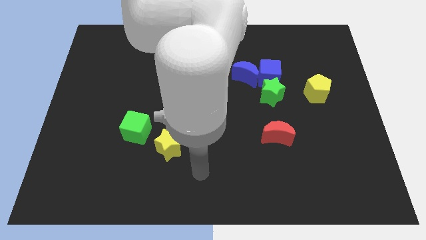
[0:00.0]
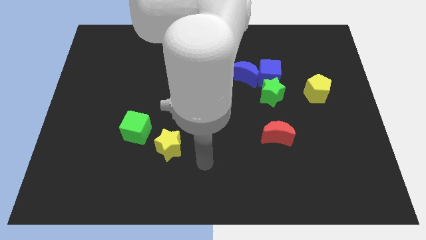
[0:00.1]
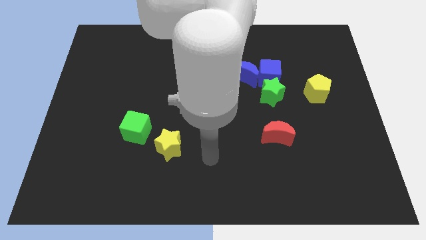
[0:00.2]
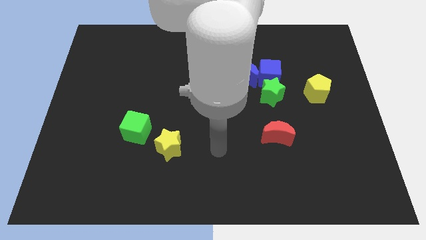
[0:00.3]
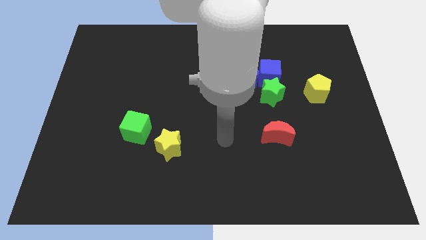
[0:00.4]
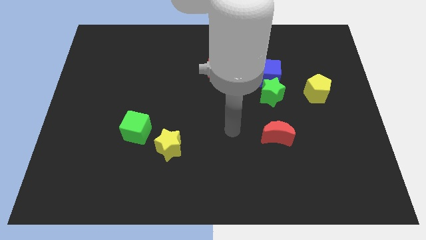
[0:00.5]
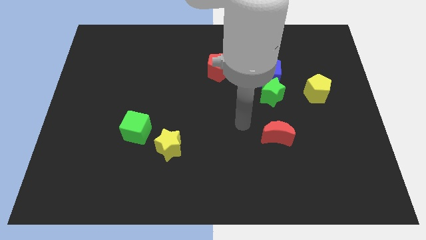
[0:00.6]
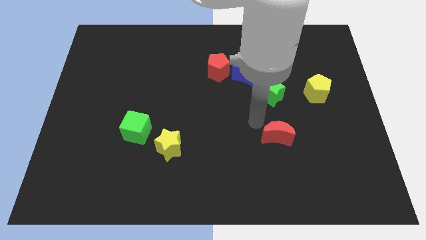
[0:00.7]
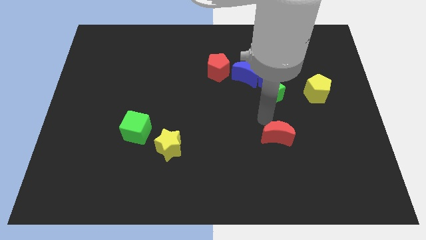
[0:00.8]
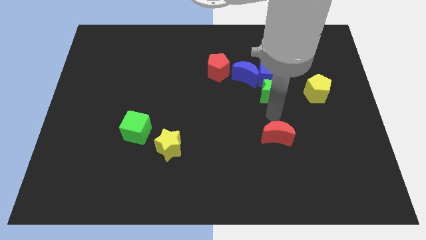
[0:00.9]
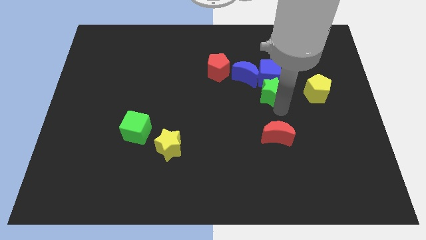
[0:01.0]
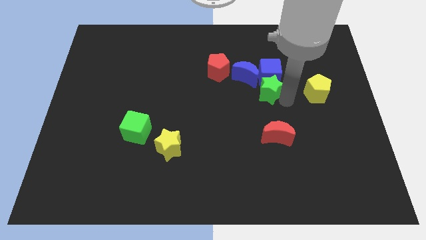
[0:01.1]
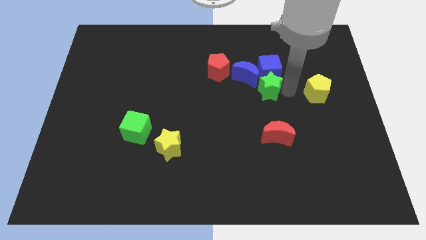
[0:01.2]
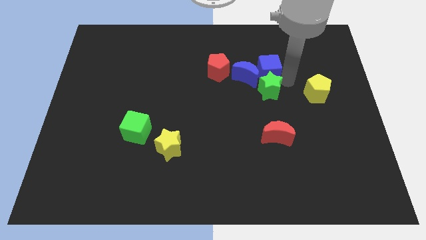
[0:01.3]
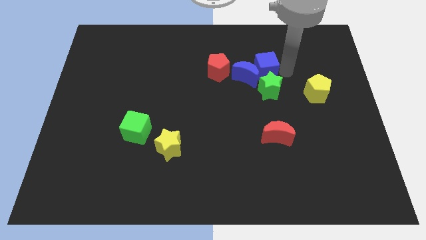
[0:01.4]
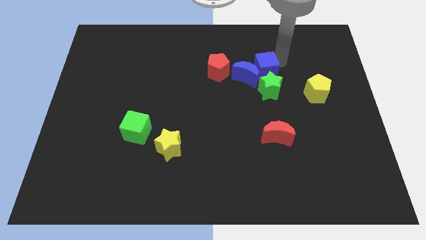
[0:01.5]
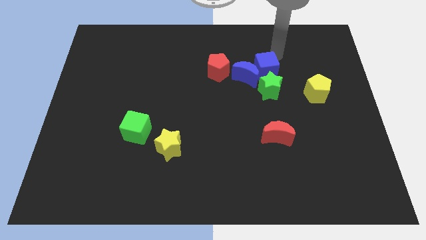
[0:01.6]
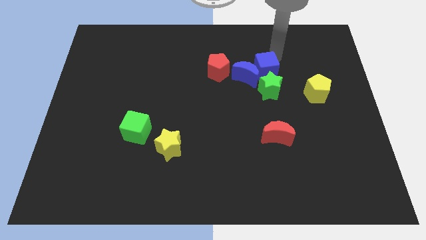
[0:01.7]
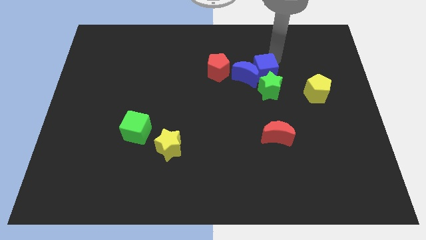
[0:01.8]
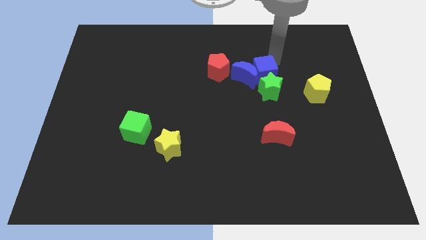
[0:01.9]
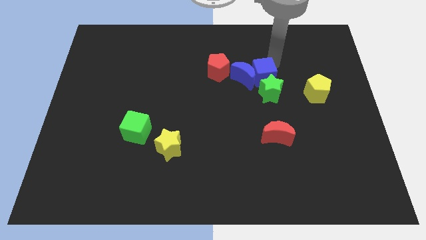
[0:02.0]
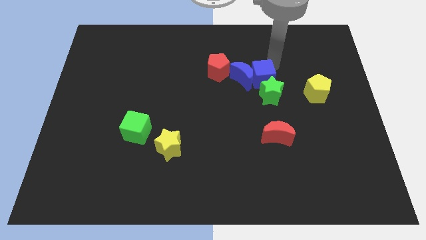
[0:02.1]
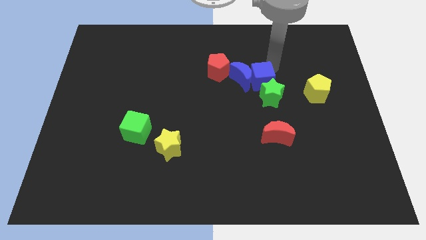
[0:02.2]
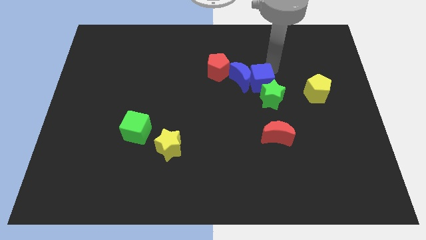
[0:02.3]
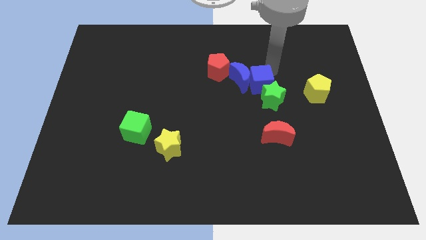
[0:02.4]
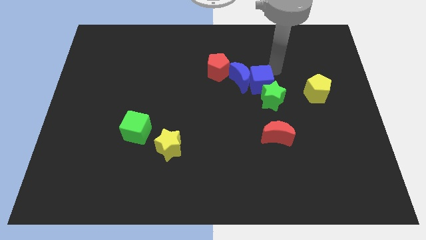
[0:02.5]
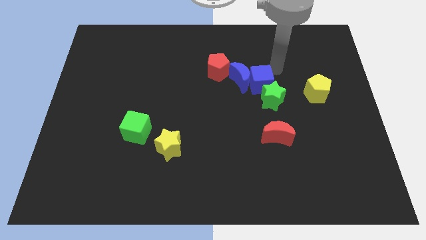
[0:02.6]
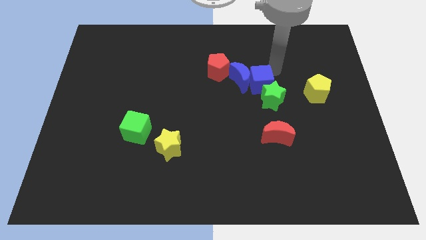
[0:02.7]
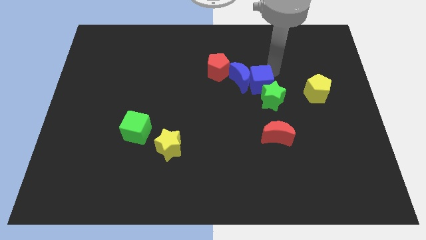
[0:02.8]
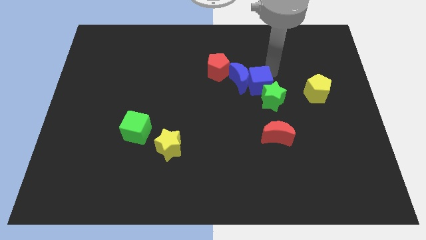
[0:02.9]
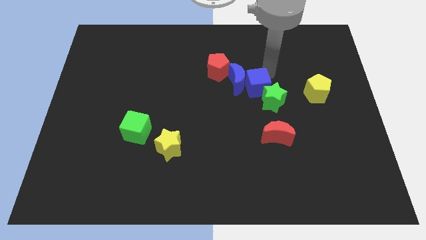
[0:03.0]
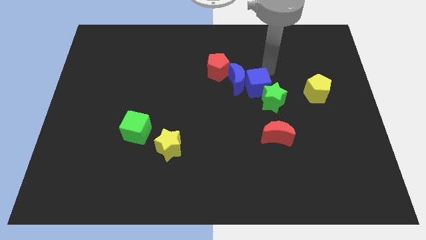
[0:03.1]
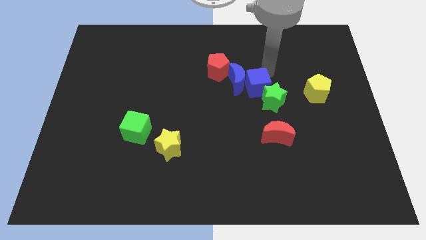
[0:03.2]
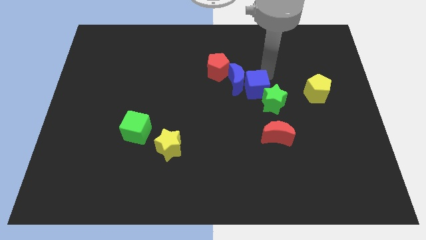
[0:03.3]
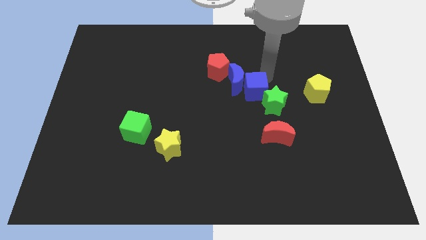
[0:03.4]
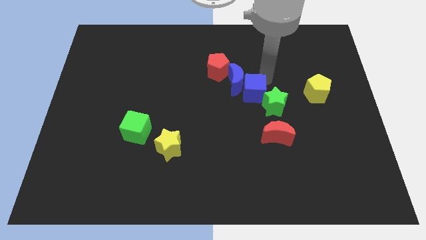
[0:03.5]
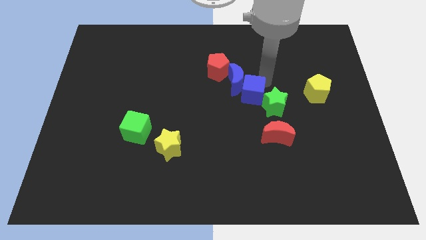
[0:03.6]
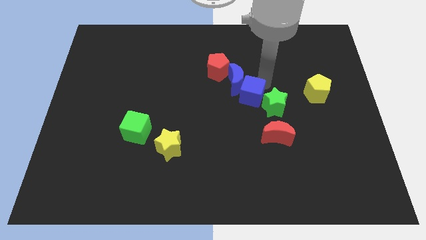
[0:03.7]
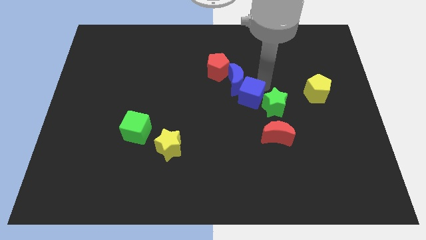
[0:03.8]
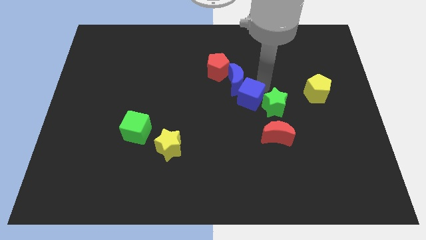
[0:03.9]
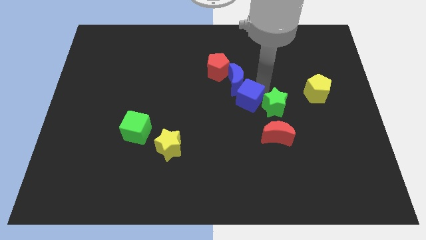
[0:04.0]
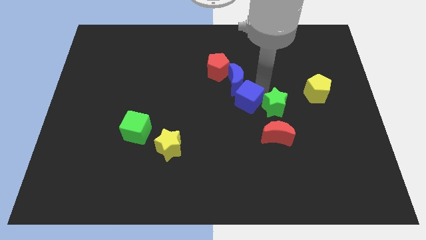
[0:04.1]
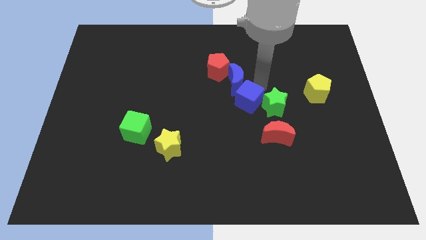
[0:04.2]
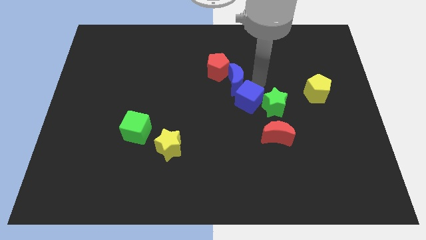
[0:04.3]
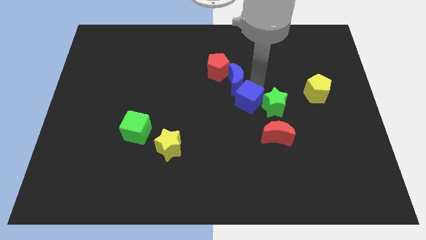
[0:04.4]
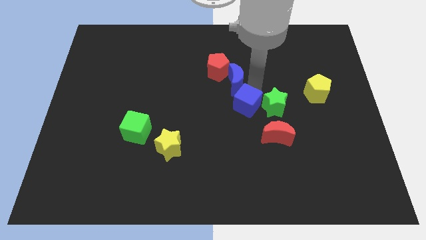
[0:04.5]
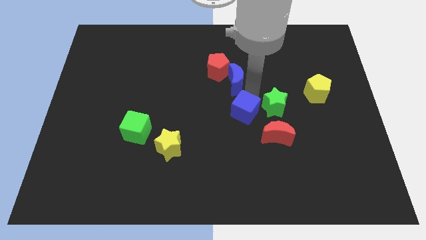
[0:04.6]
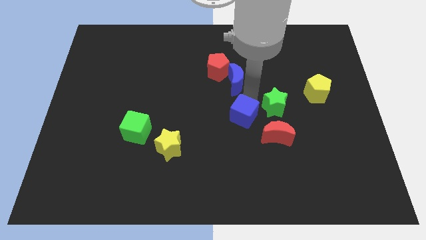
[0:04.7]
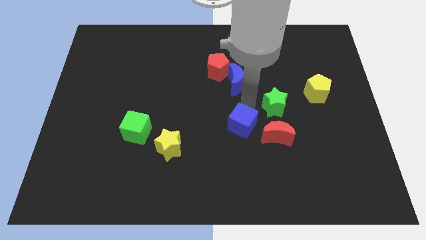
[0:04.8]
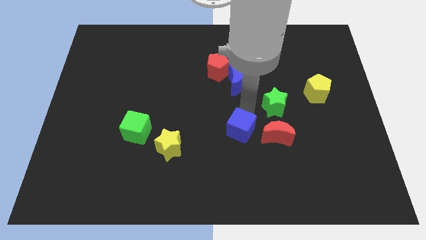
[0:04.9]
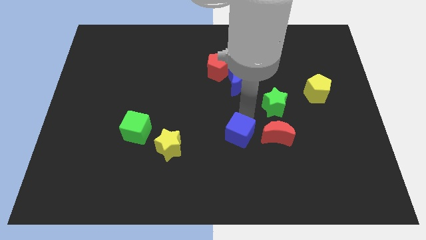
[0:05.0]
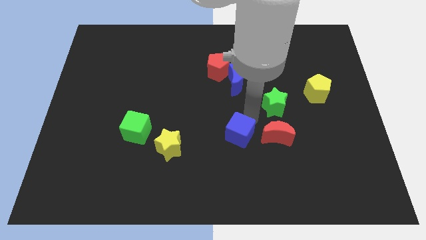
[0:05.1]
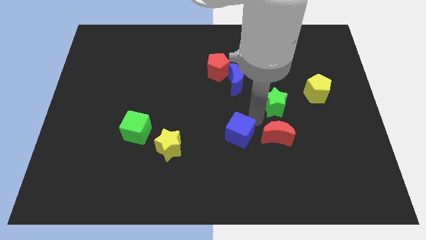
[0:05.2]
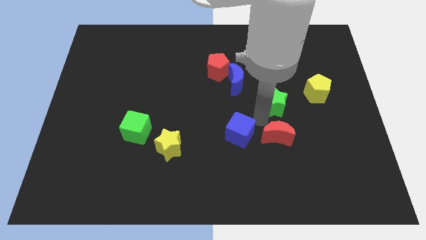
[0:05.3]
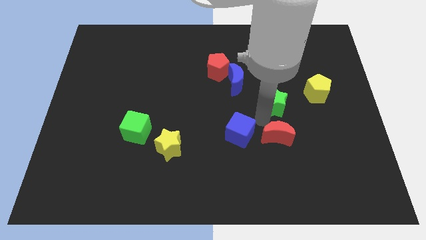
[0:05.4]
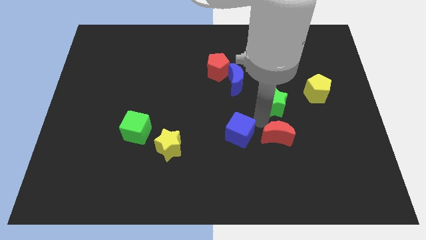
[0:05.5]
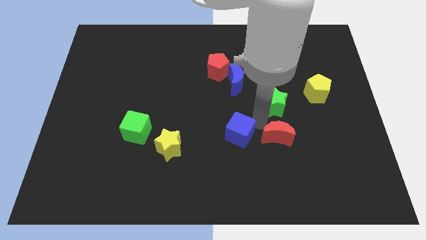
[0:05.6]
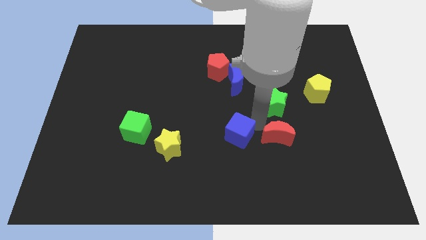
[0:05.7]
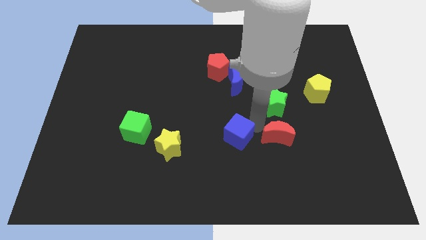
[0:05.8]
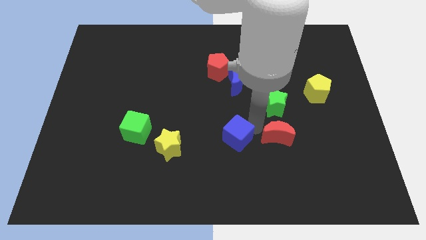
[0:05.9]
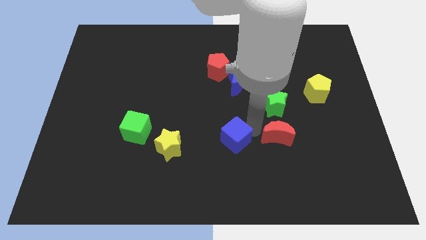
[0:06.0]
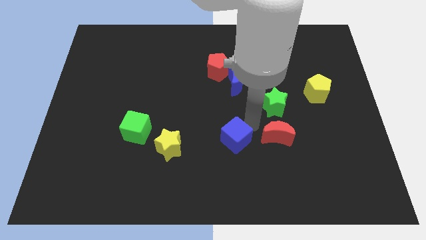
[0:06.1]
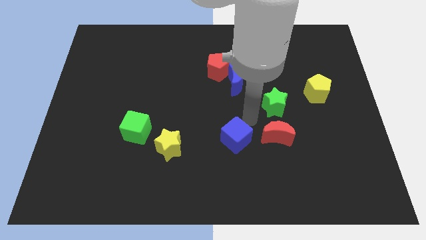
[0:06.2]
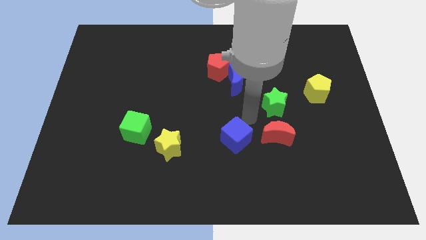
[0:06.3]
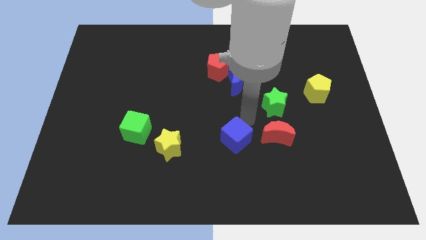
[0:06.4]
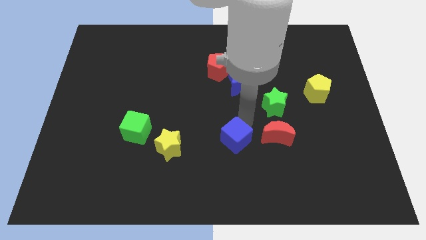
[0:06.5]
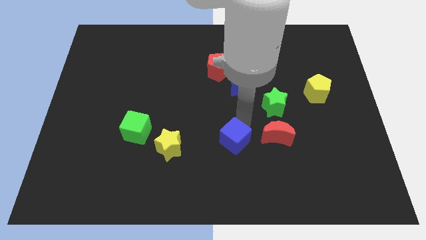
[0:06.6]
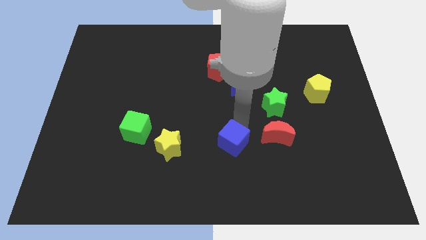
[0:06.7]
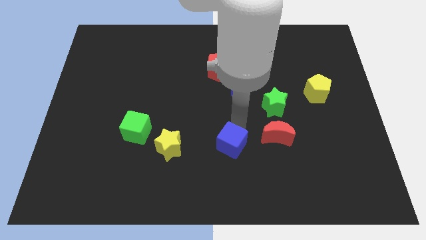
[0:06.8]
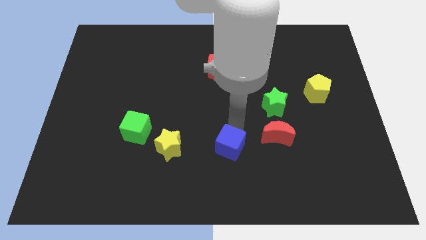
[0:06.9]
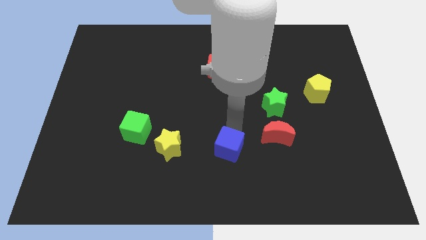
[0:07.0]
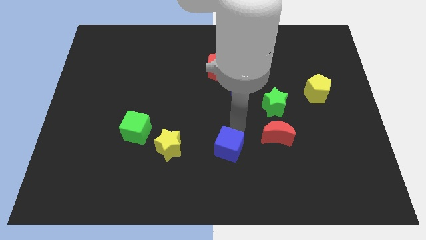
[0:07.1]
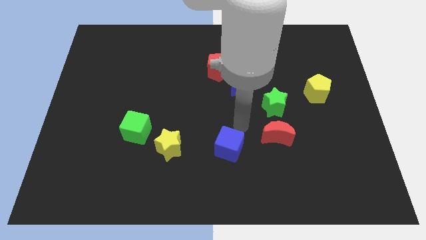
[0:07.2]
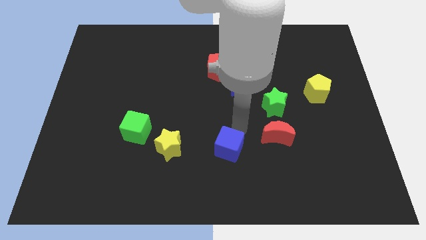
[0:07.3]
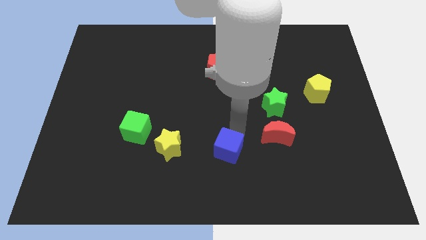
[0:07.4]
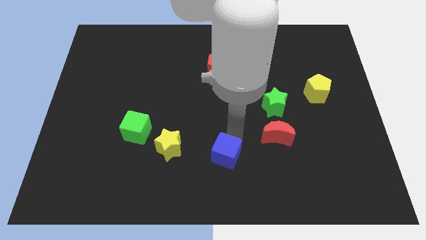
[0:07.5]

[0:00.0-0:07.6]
move the blue cube to the bottom side

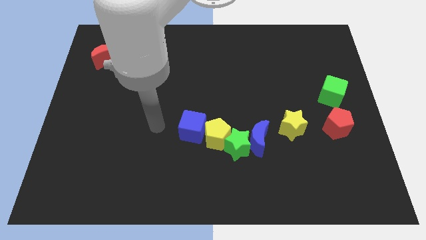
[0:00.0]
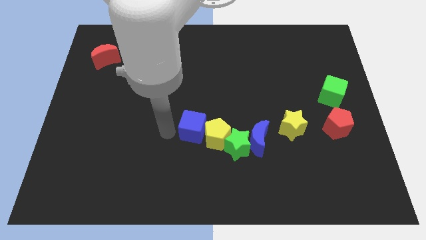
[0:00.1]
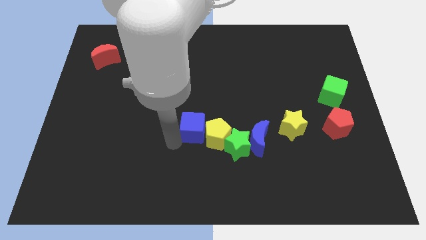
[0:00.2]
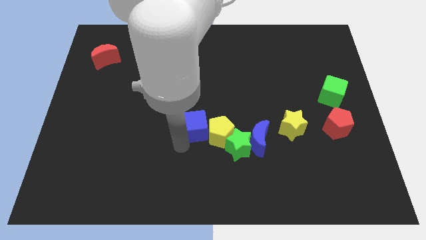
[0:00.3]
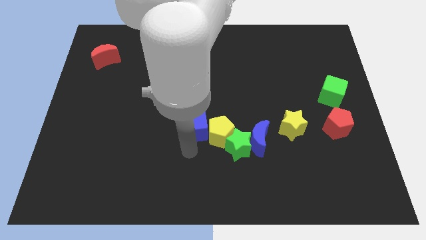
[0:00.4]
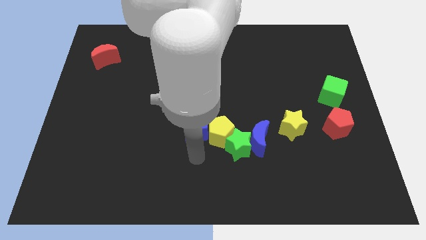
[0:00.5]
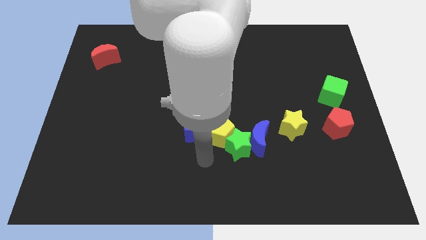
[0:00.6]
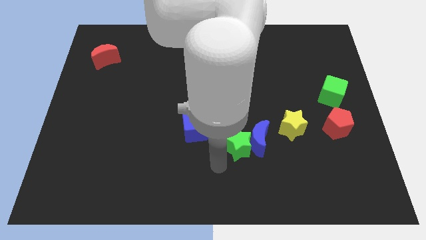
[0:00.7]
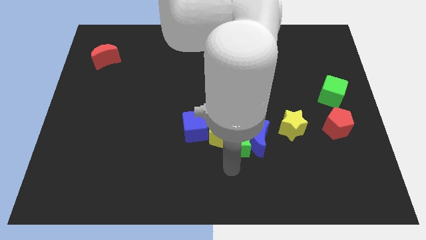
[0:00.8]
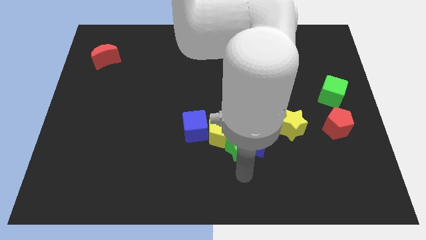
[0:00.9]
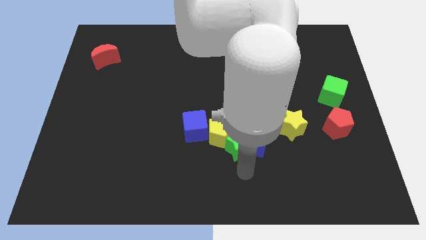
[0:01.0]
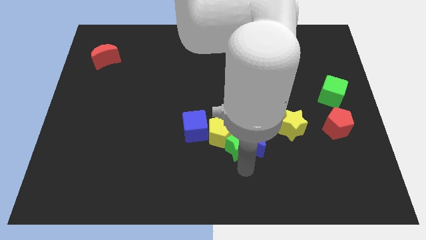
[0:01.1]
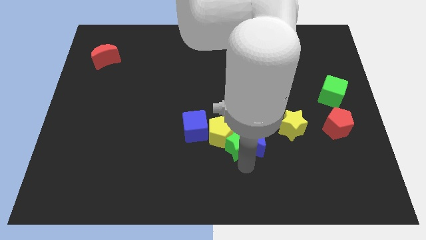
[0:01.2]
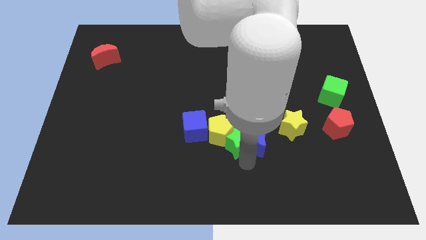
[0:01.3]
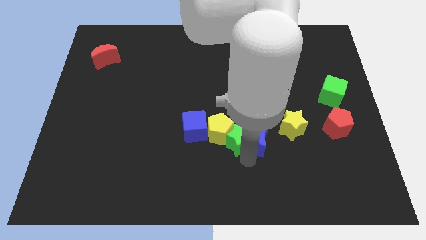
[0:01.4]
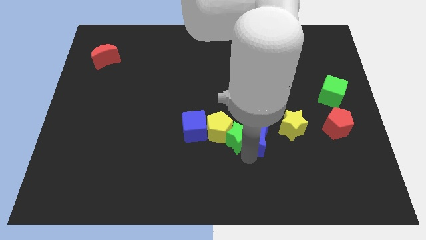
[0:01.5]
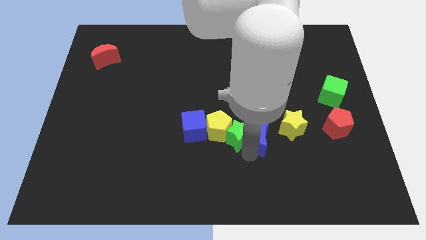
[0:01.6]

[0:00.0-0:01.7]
put the green star to the center of the board
